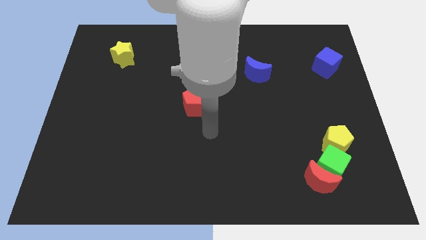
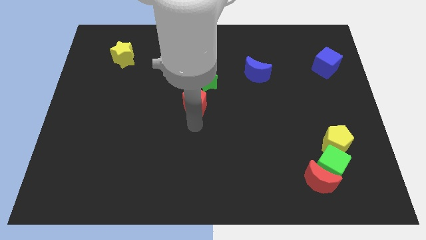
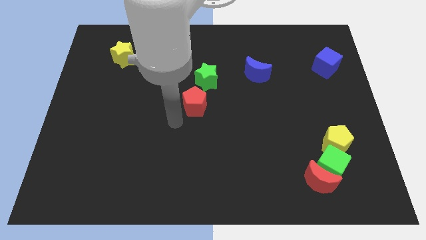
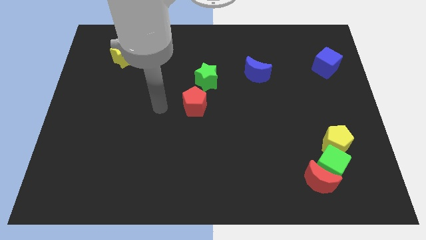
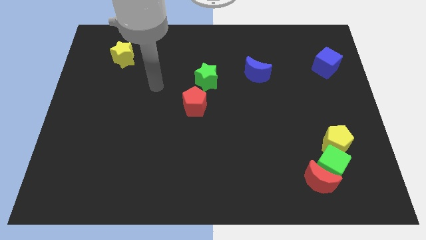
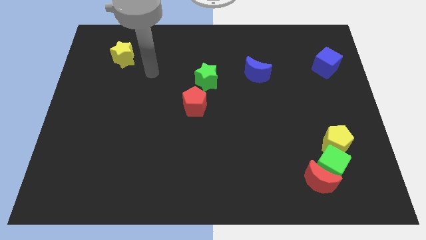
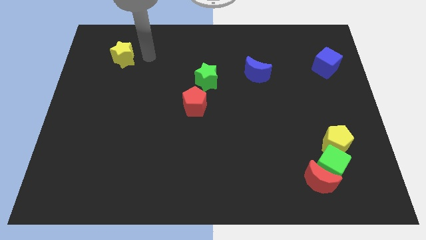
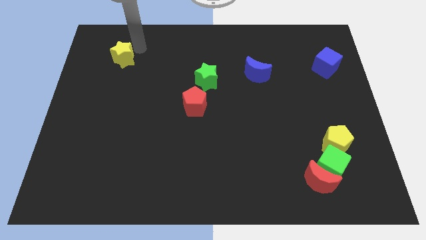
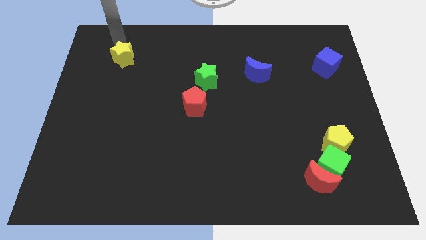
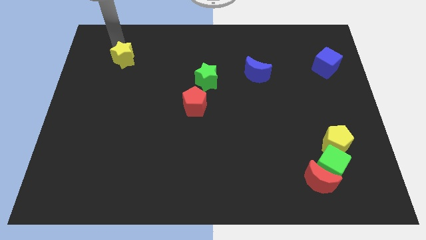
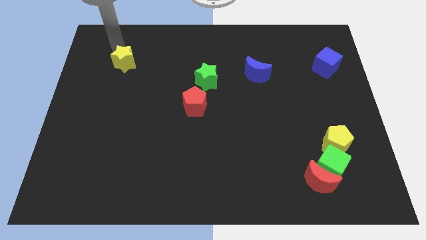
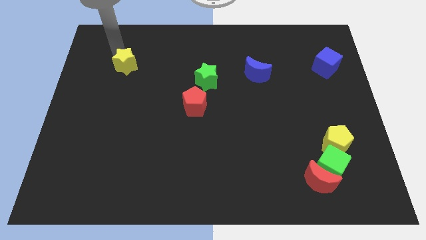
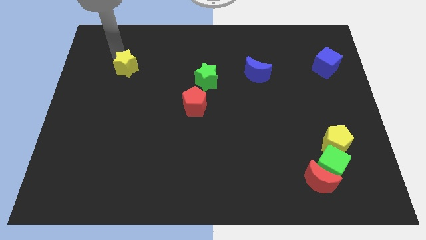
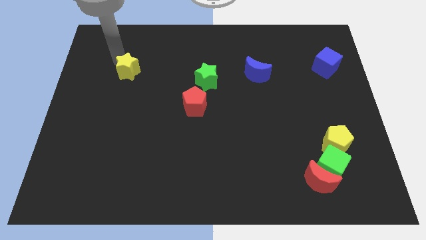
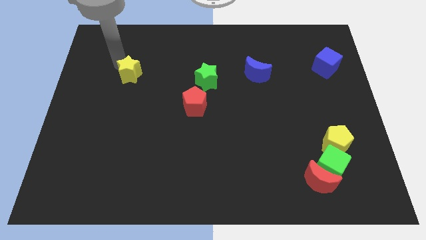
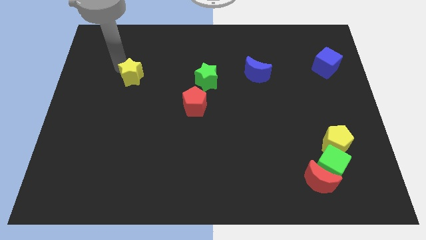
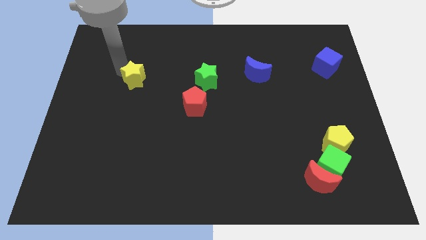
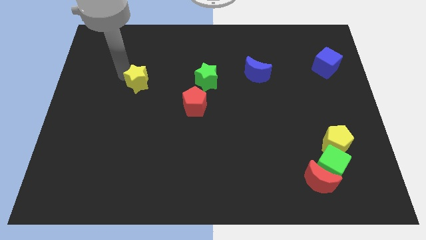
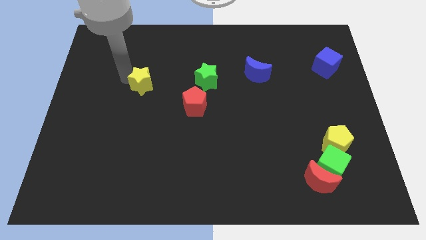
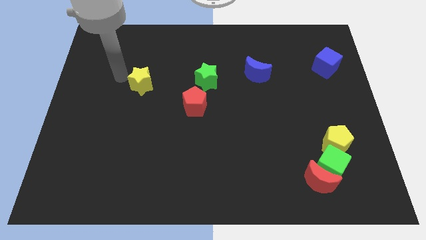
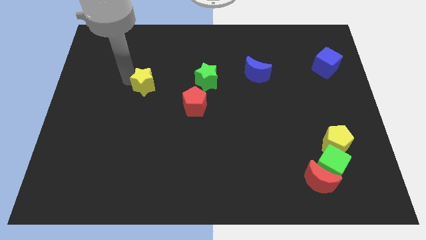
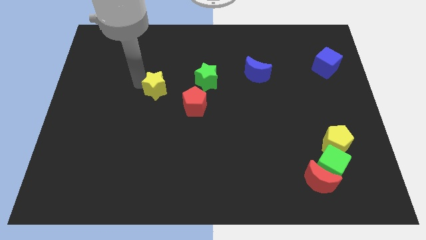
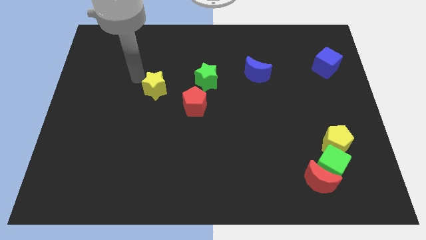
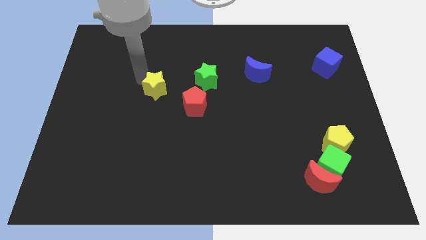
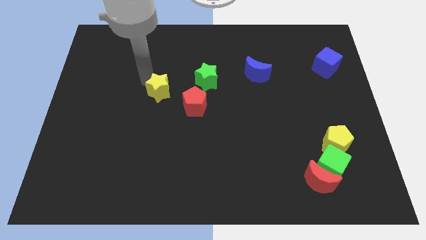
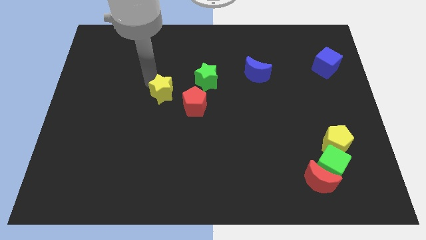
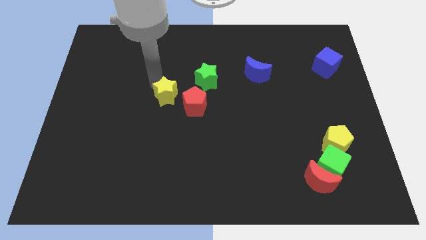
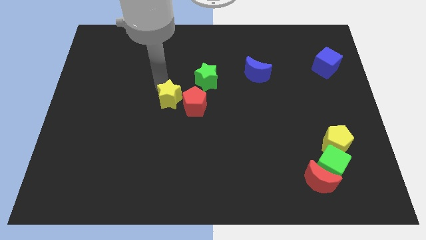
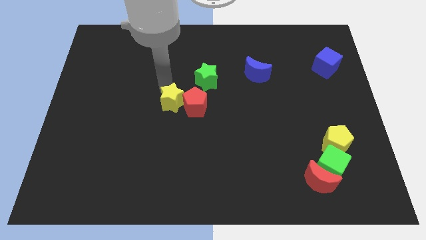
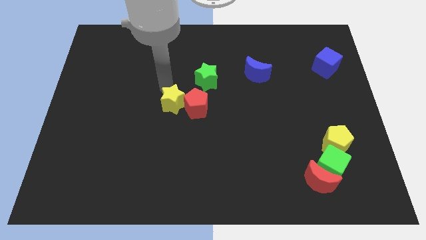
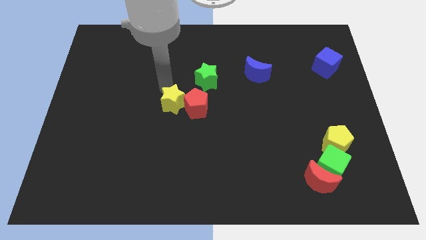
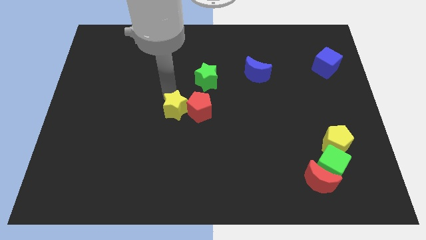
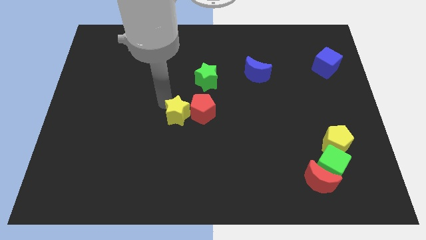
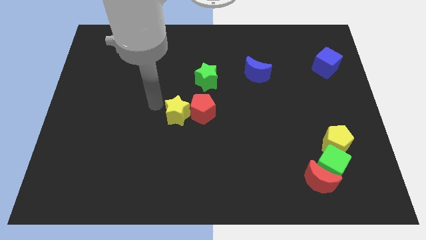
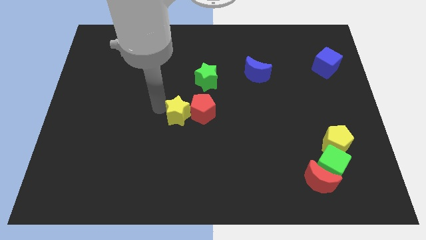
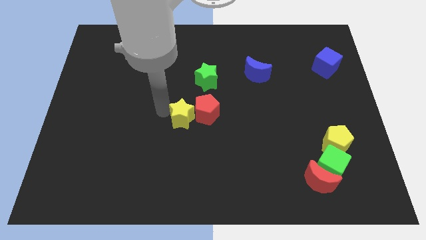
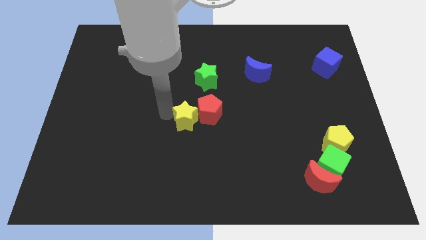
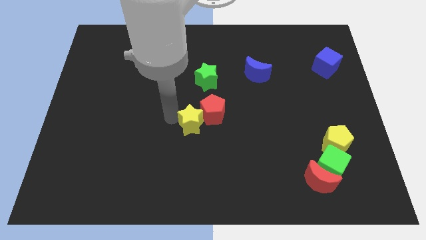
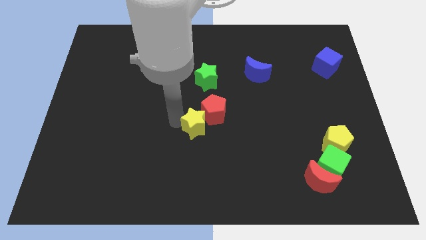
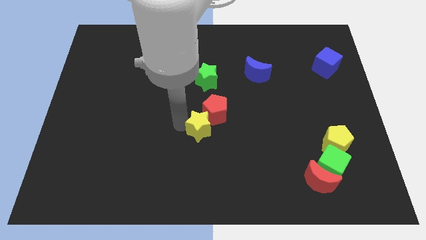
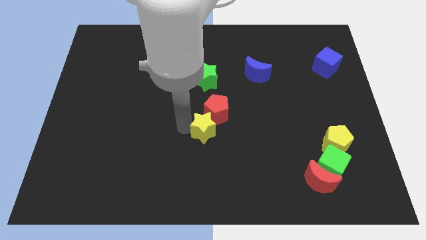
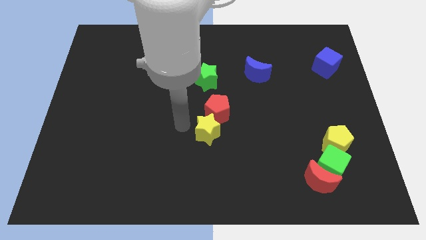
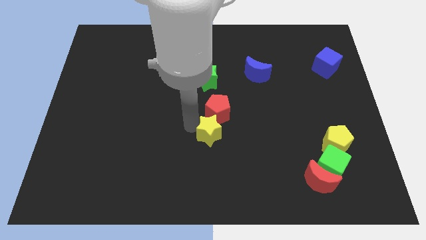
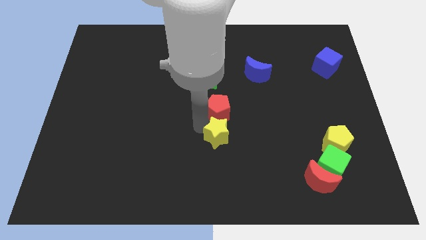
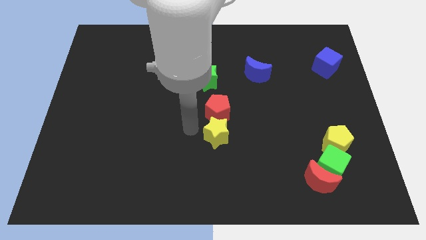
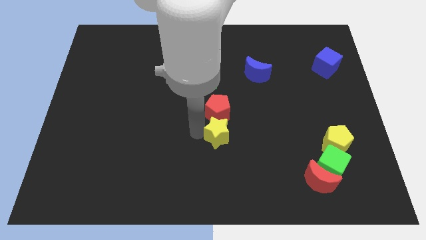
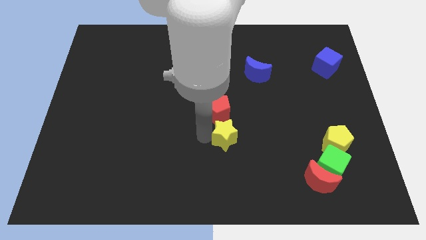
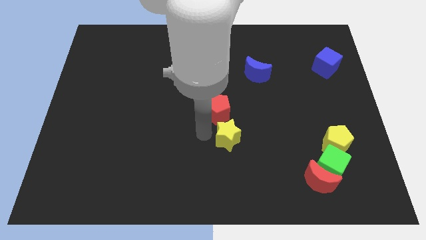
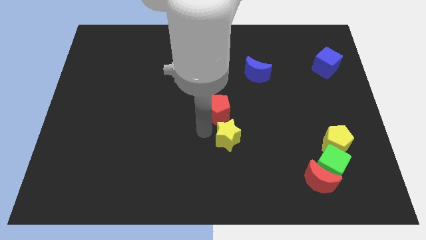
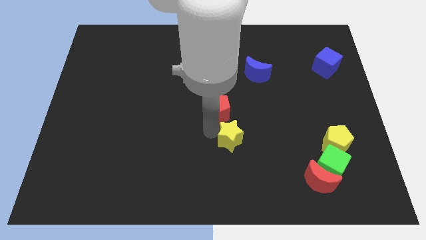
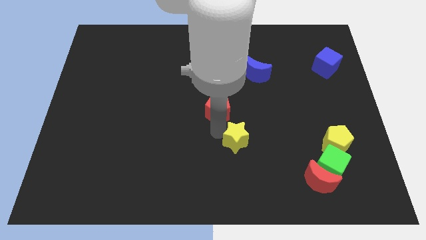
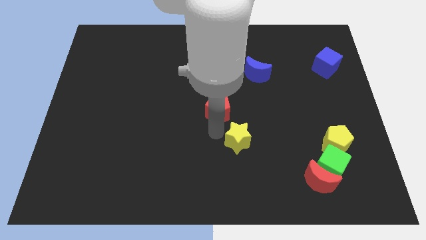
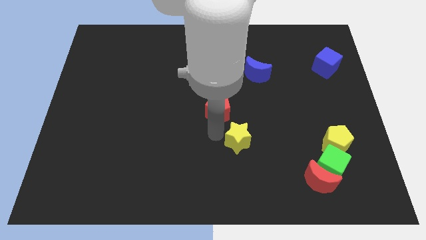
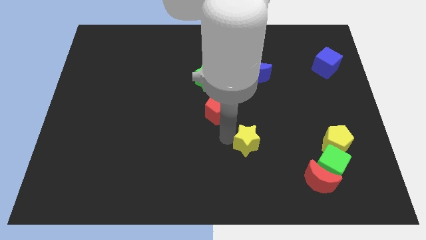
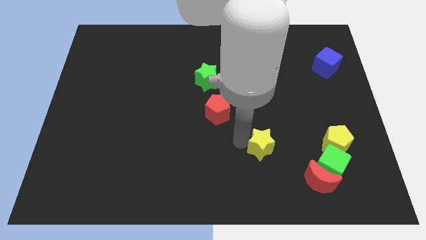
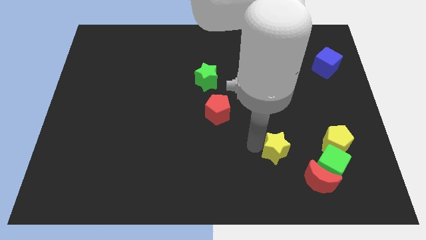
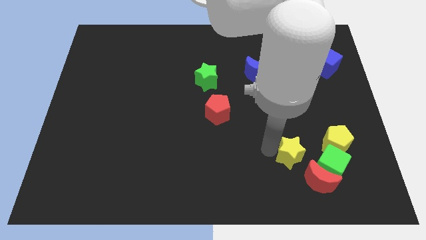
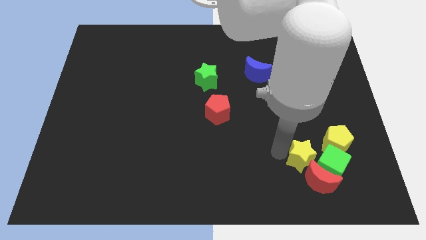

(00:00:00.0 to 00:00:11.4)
move the yellow star to the green cube

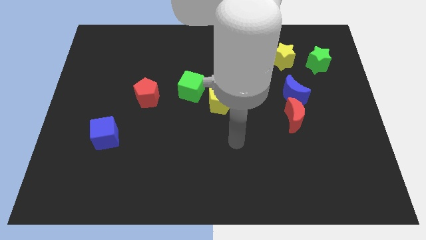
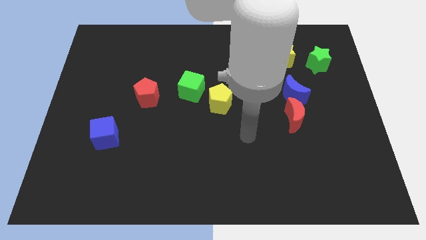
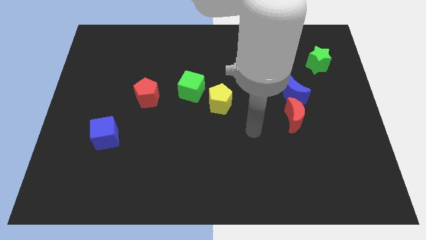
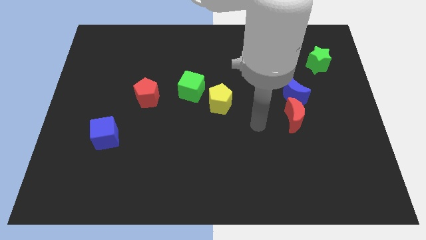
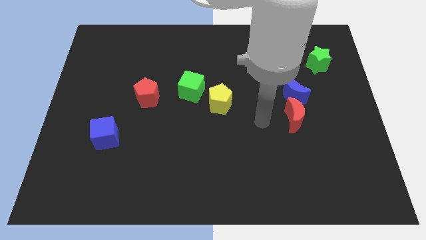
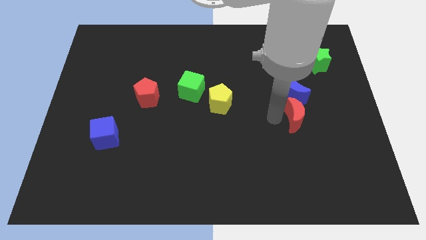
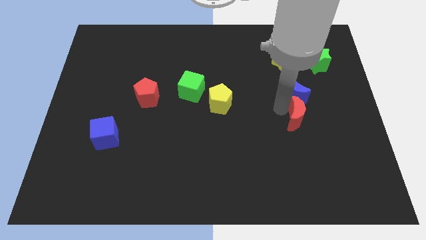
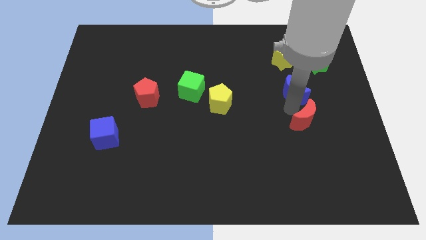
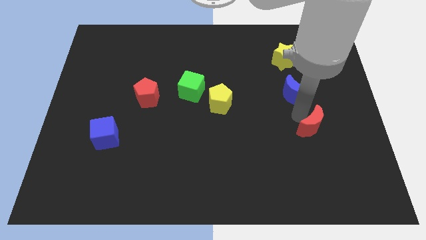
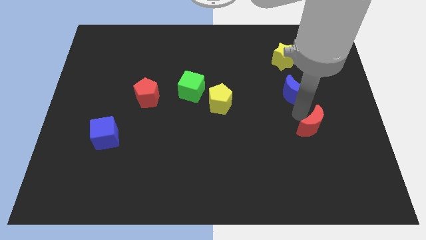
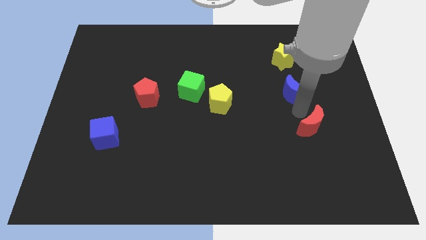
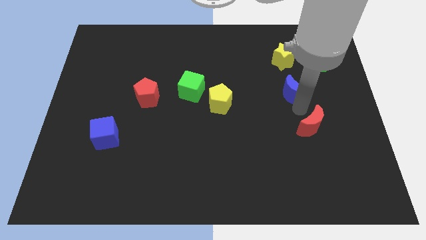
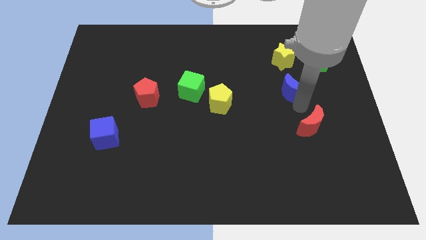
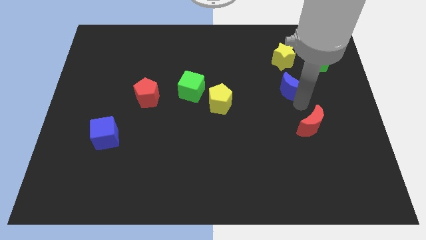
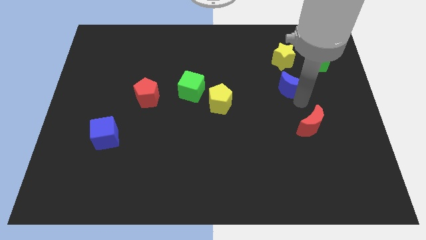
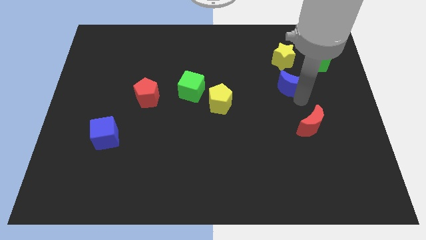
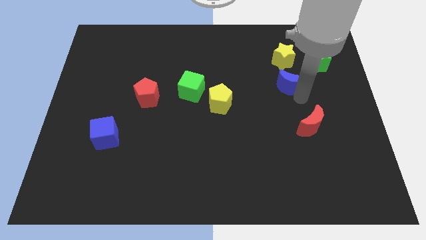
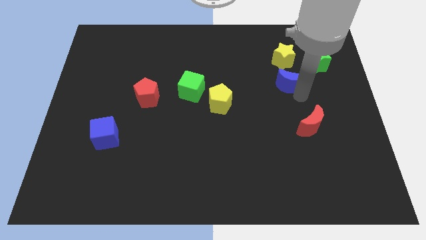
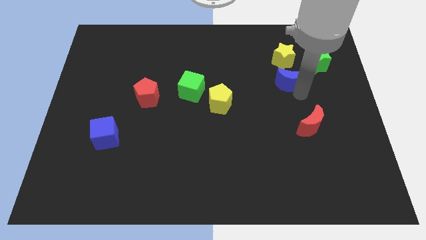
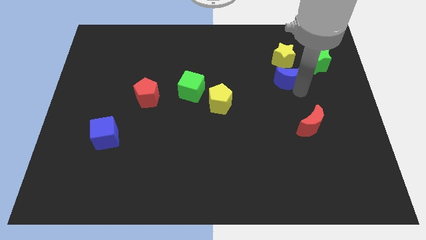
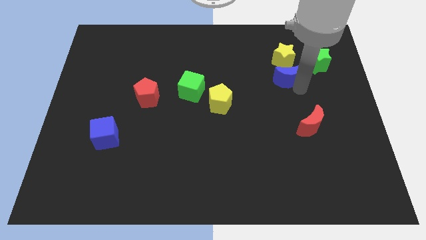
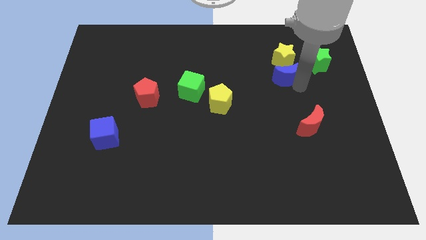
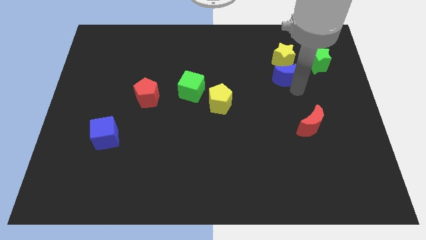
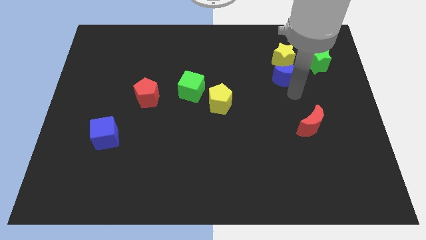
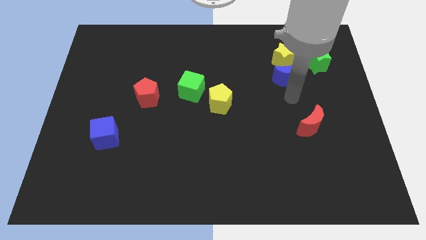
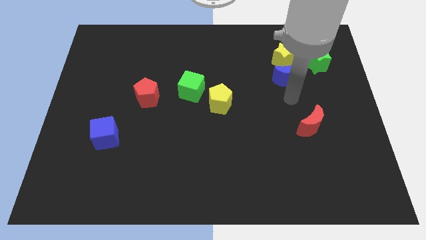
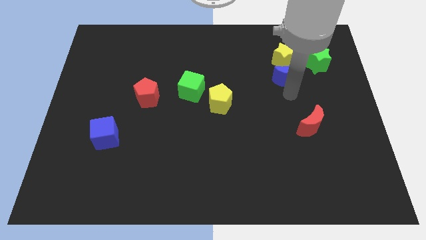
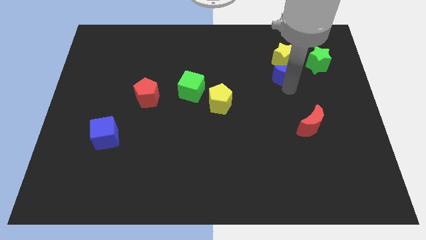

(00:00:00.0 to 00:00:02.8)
put the blue moon close to the yellow star
